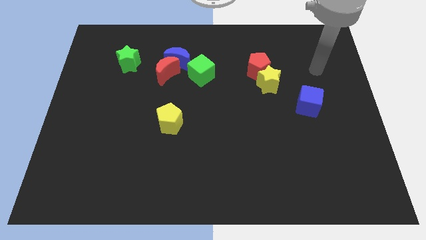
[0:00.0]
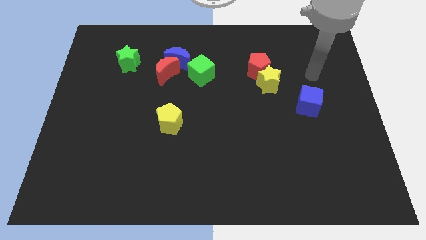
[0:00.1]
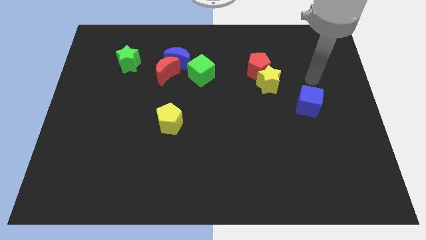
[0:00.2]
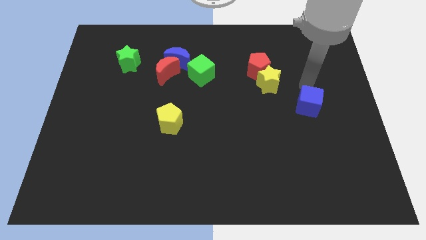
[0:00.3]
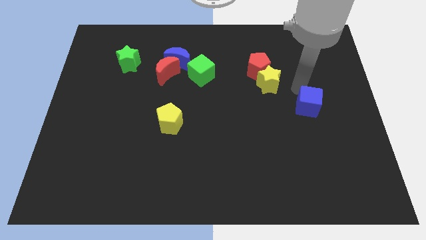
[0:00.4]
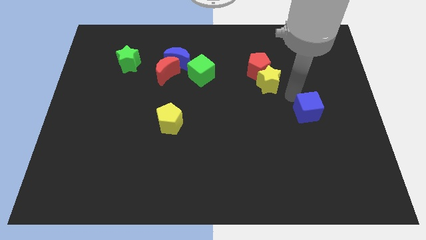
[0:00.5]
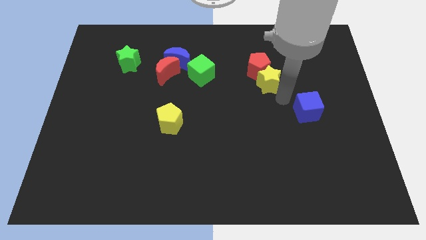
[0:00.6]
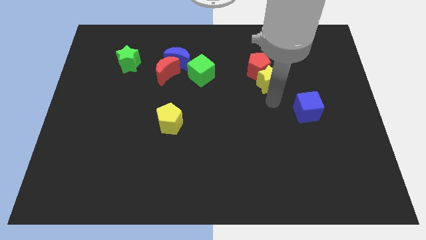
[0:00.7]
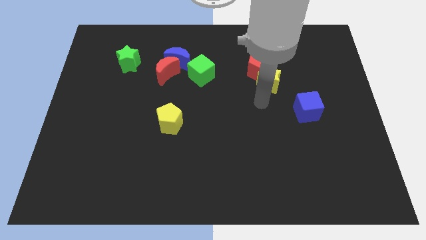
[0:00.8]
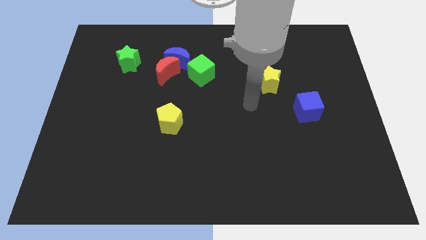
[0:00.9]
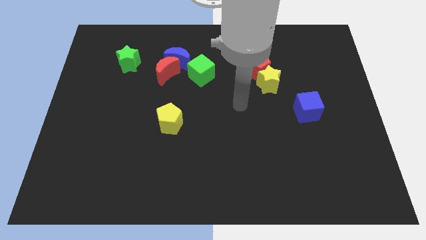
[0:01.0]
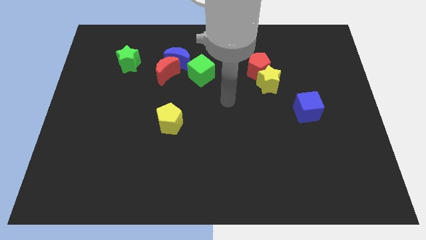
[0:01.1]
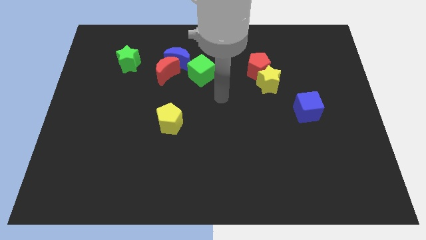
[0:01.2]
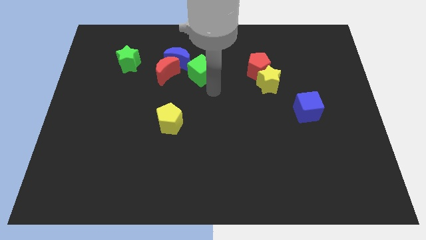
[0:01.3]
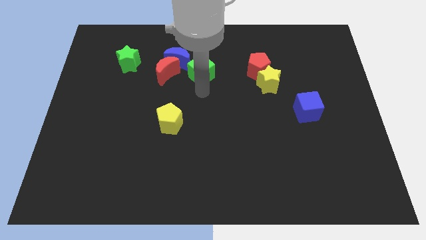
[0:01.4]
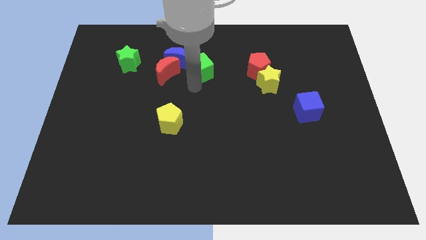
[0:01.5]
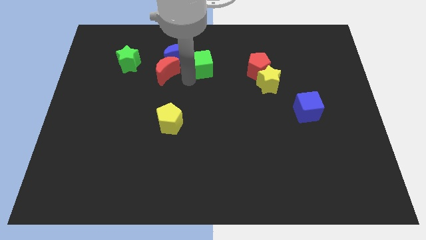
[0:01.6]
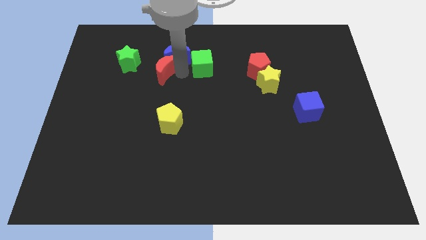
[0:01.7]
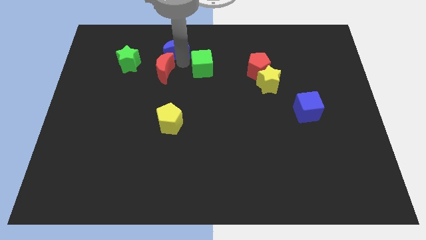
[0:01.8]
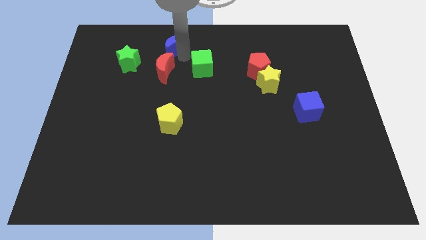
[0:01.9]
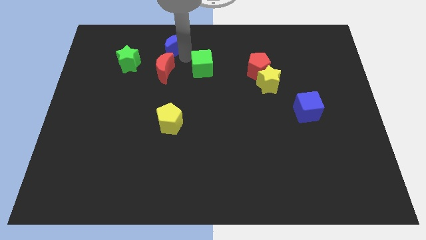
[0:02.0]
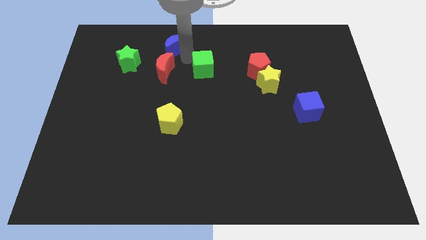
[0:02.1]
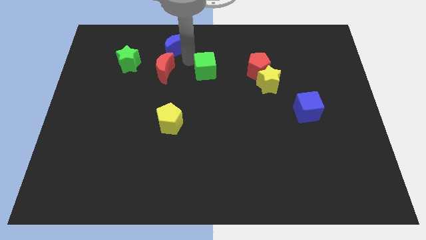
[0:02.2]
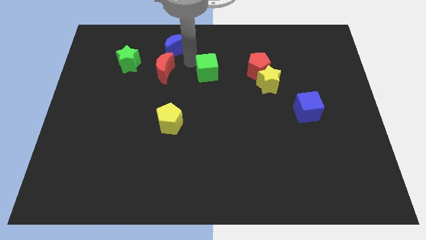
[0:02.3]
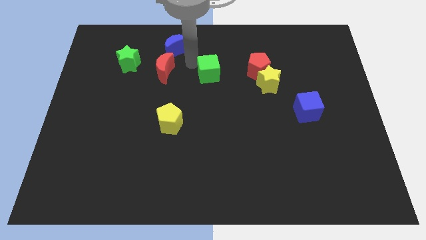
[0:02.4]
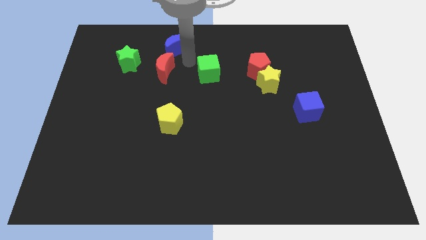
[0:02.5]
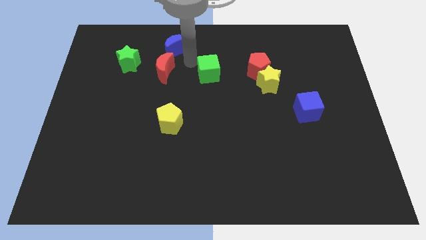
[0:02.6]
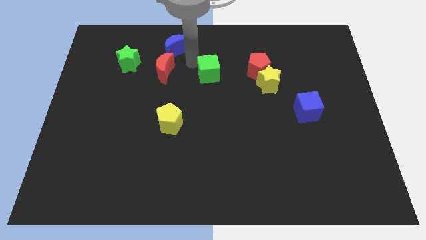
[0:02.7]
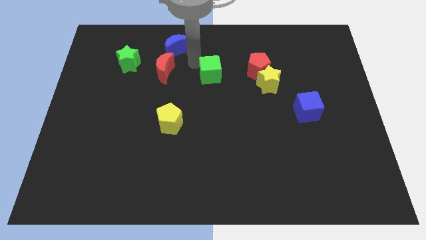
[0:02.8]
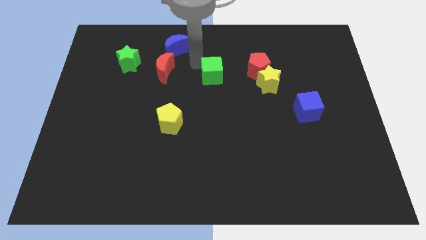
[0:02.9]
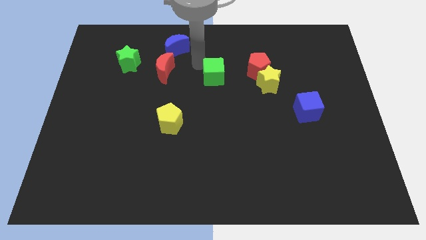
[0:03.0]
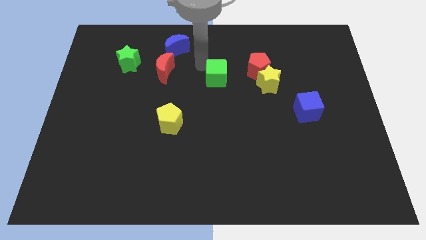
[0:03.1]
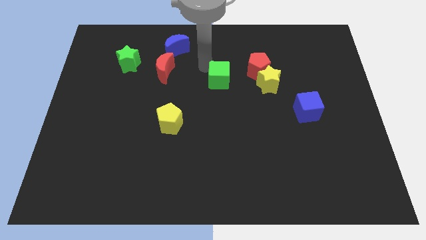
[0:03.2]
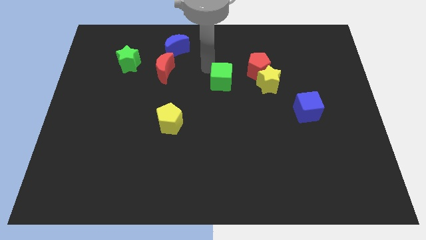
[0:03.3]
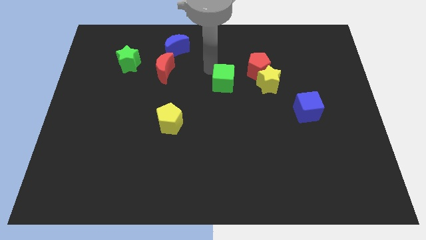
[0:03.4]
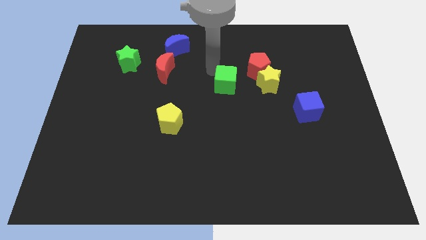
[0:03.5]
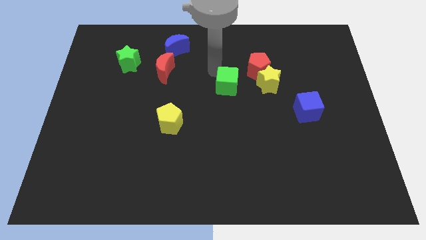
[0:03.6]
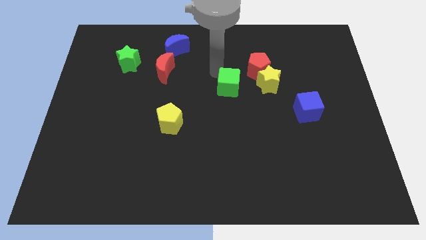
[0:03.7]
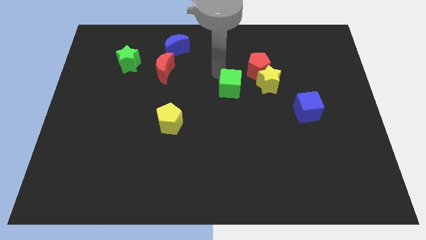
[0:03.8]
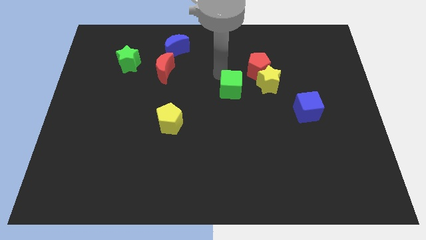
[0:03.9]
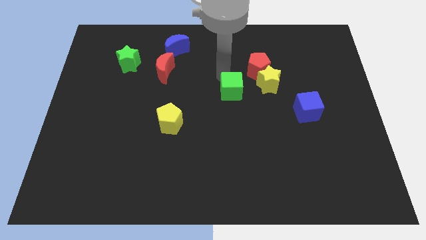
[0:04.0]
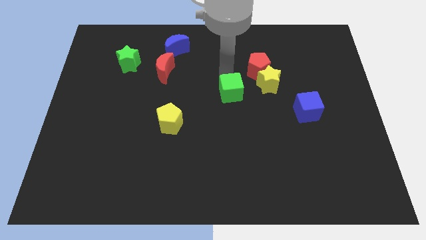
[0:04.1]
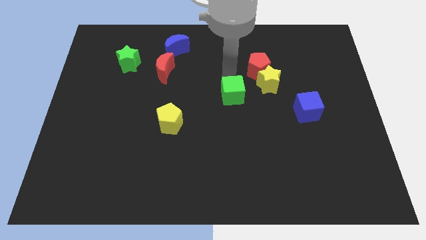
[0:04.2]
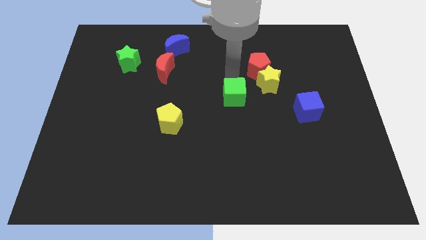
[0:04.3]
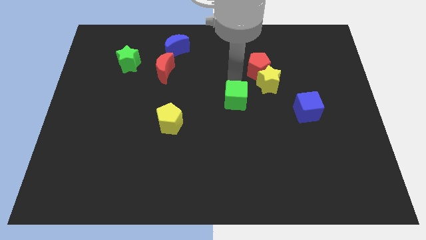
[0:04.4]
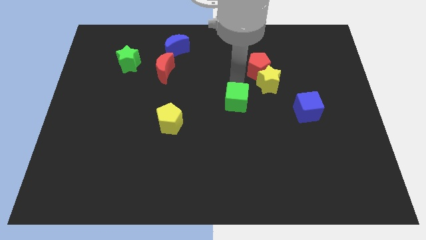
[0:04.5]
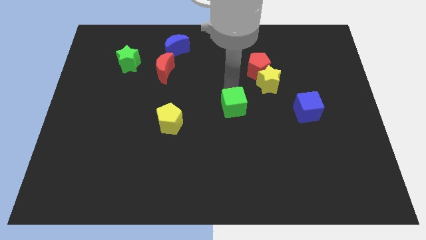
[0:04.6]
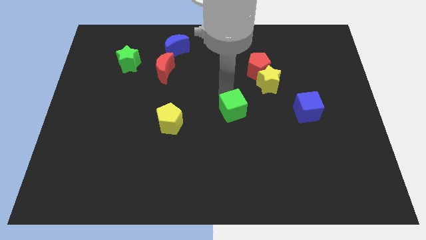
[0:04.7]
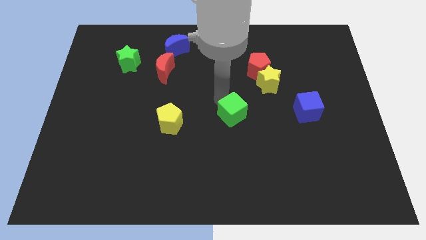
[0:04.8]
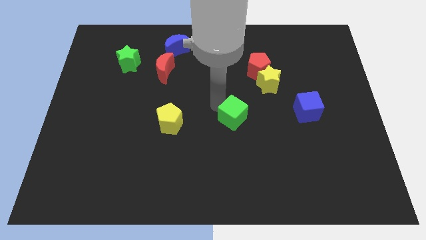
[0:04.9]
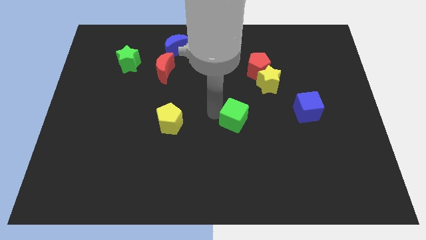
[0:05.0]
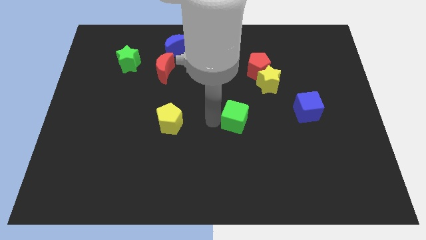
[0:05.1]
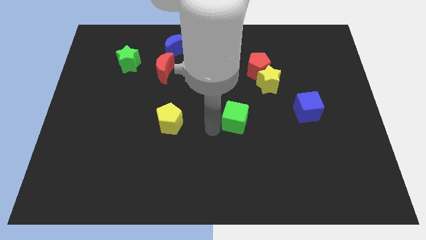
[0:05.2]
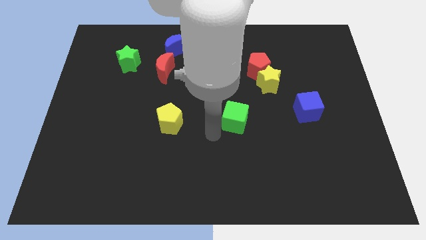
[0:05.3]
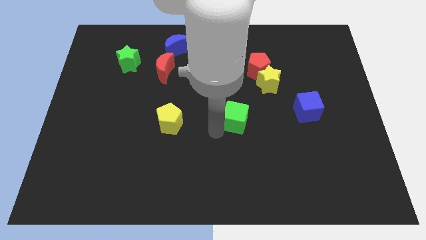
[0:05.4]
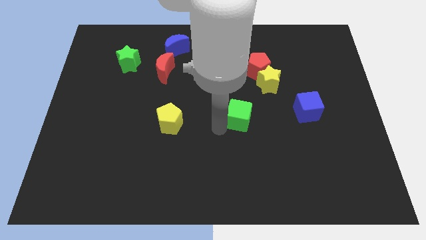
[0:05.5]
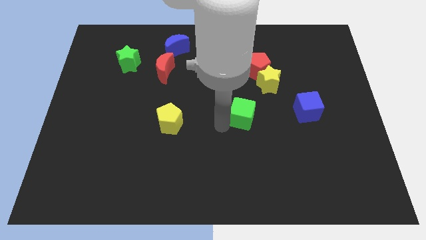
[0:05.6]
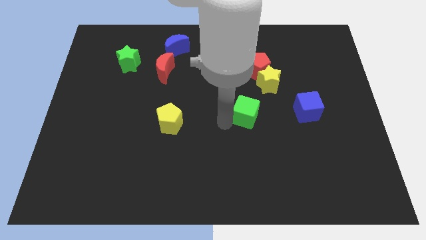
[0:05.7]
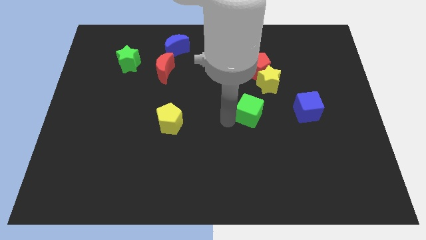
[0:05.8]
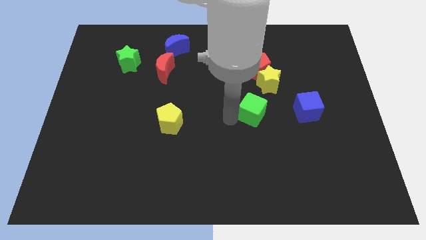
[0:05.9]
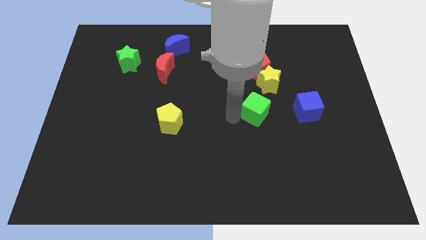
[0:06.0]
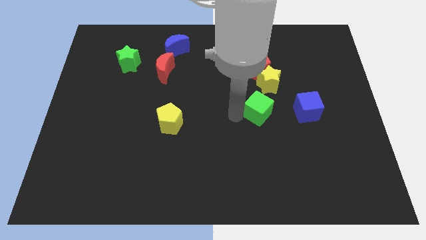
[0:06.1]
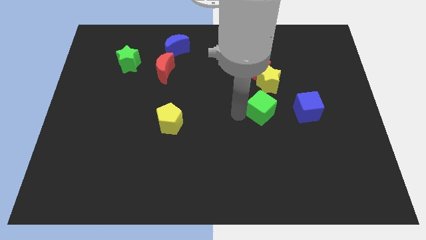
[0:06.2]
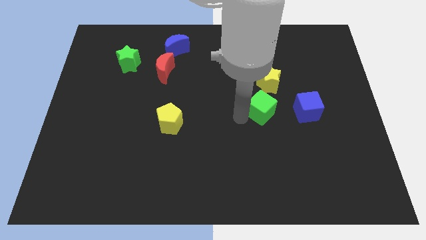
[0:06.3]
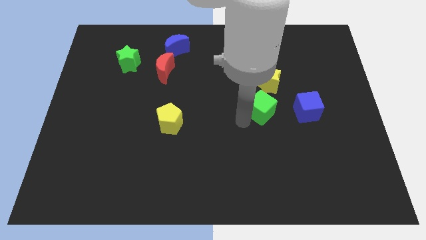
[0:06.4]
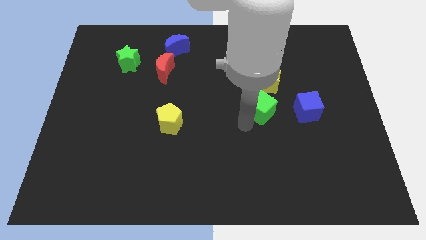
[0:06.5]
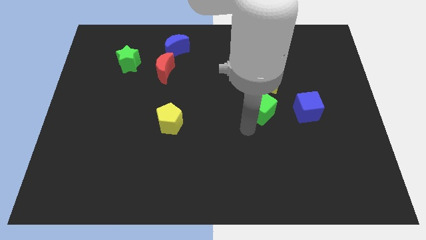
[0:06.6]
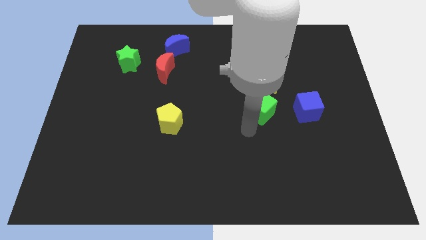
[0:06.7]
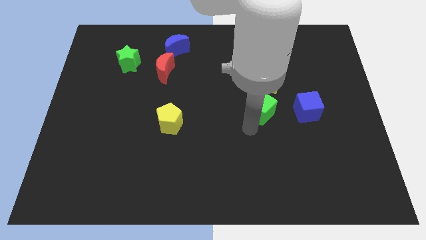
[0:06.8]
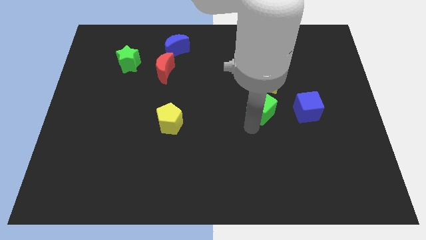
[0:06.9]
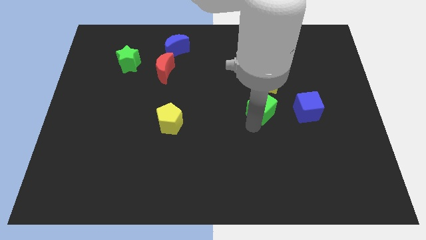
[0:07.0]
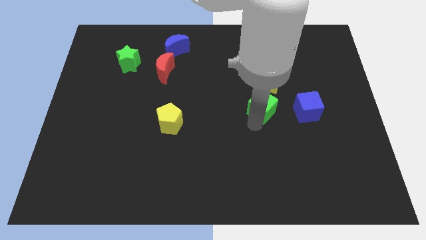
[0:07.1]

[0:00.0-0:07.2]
push the green cube a little bit to the right

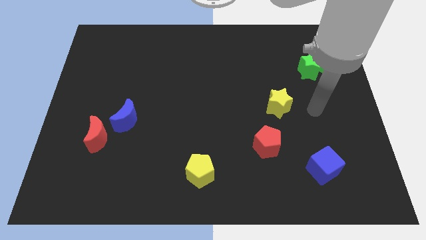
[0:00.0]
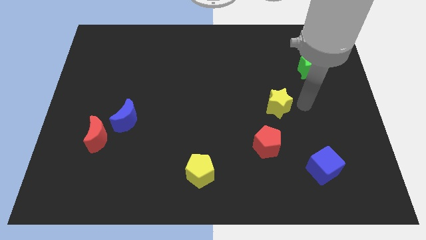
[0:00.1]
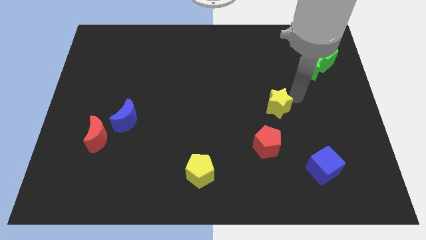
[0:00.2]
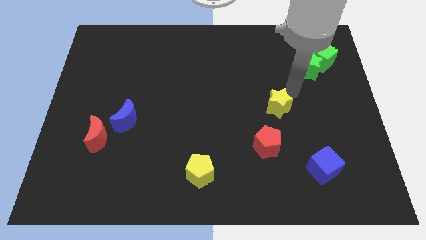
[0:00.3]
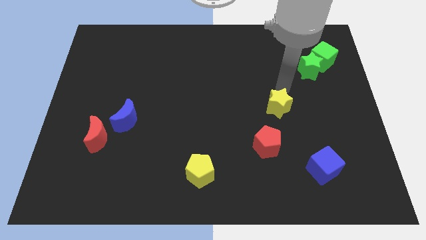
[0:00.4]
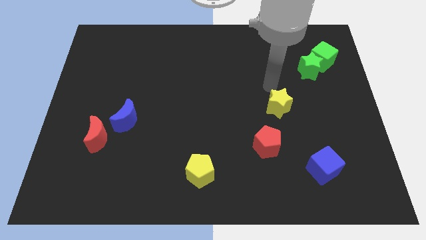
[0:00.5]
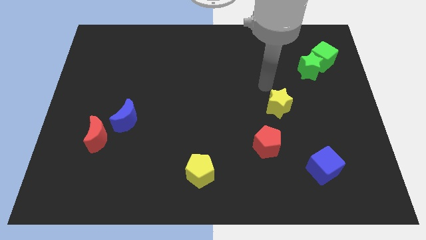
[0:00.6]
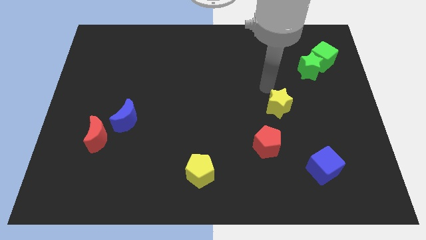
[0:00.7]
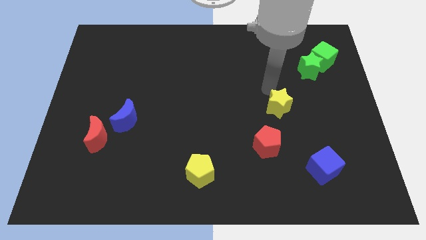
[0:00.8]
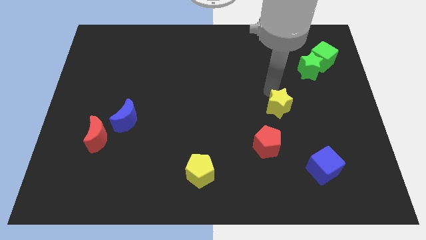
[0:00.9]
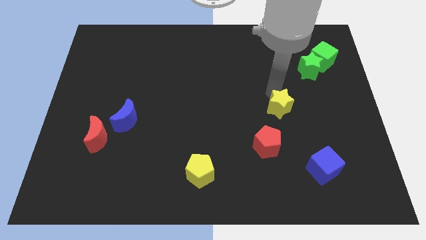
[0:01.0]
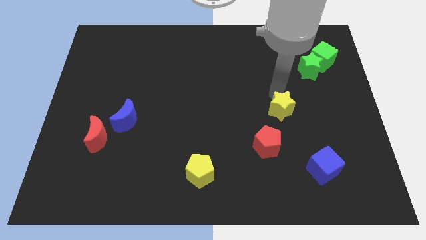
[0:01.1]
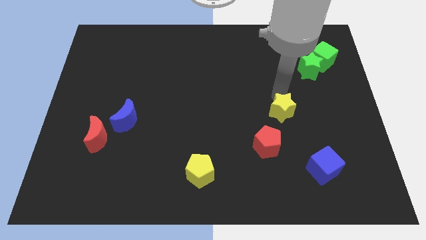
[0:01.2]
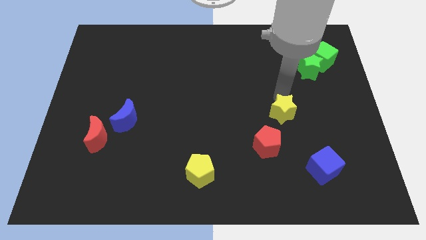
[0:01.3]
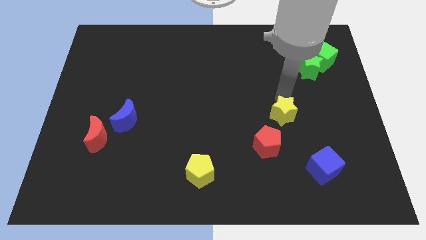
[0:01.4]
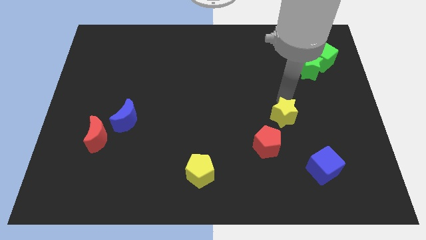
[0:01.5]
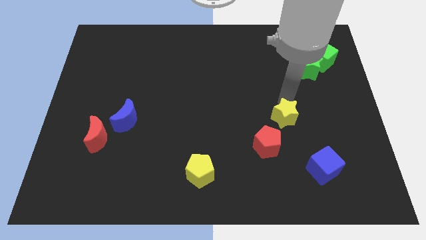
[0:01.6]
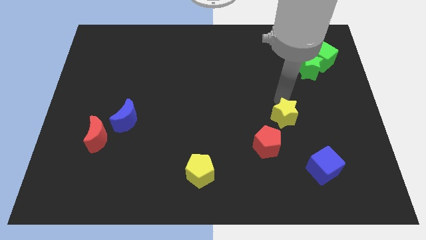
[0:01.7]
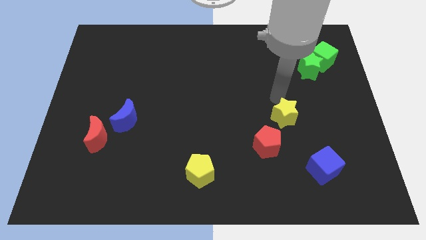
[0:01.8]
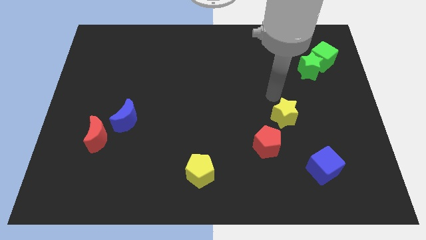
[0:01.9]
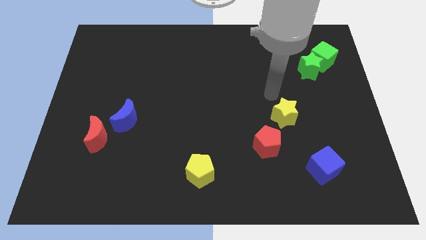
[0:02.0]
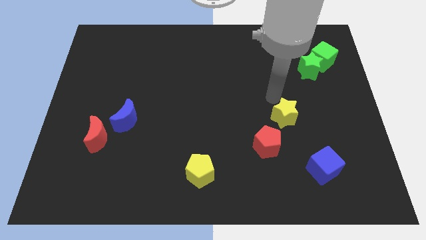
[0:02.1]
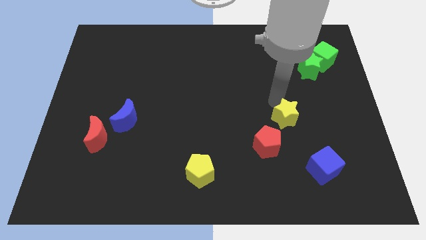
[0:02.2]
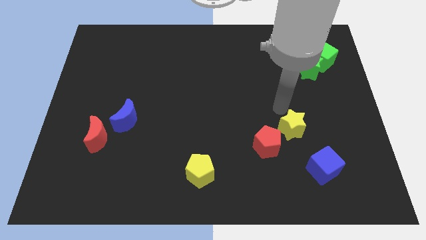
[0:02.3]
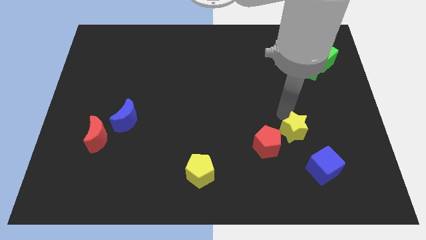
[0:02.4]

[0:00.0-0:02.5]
slightly push the yellow star down
